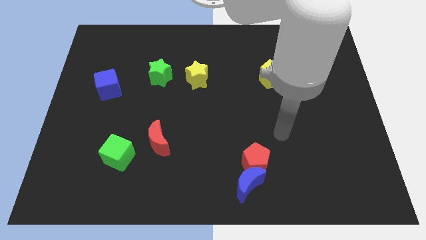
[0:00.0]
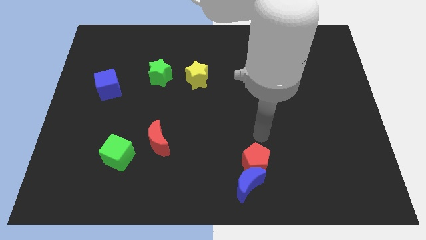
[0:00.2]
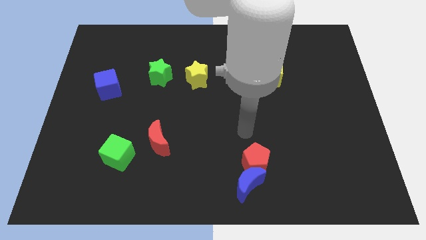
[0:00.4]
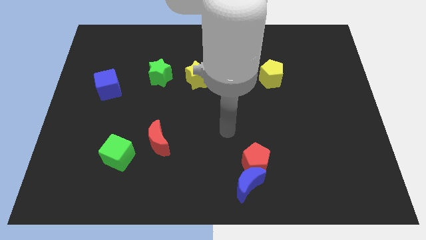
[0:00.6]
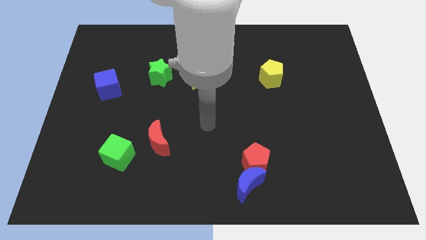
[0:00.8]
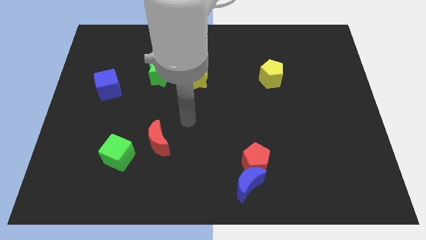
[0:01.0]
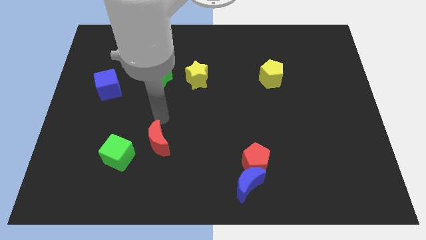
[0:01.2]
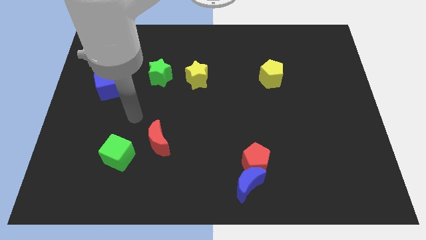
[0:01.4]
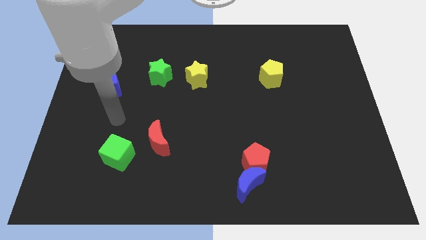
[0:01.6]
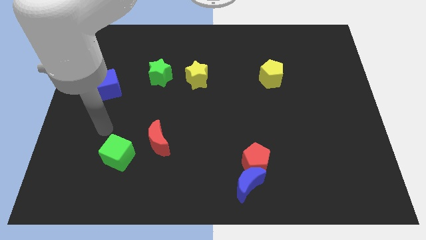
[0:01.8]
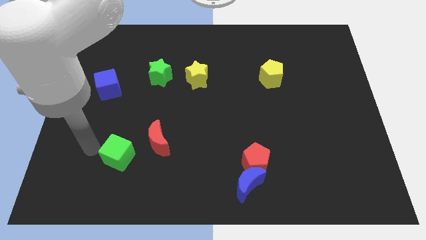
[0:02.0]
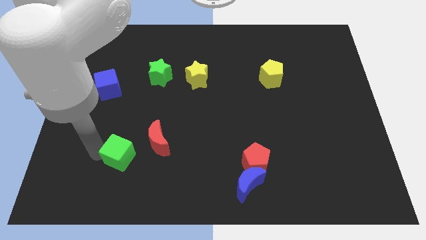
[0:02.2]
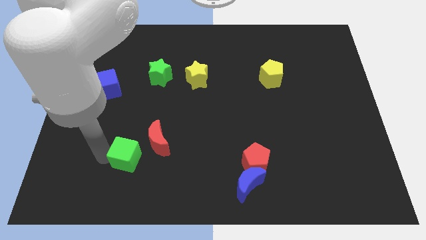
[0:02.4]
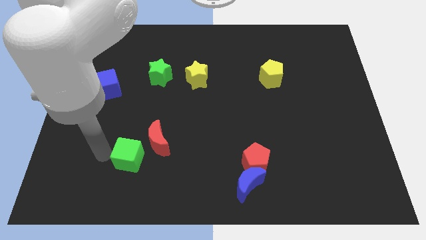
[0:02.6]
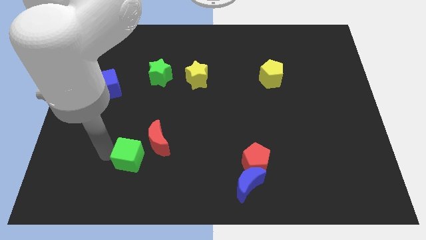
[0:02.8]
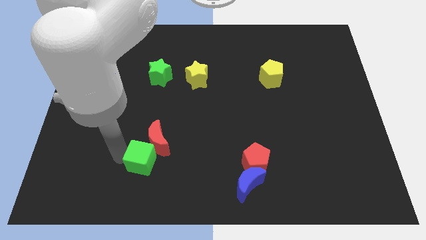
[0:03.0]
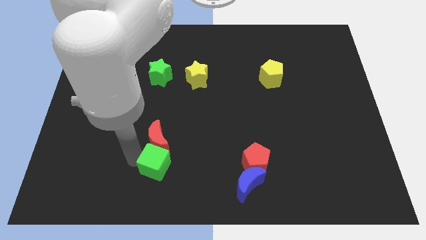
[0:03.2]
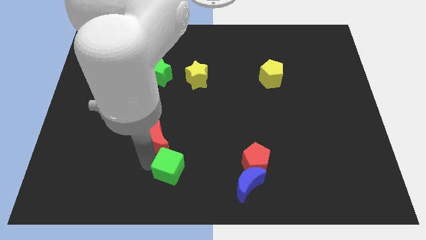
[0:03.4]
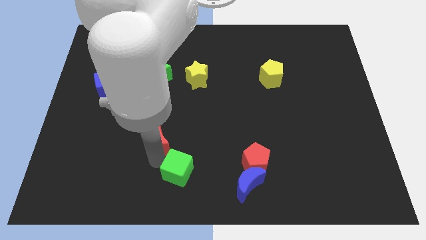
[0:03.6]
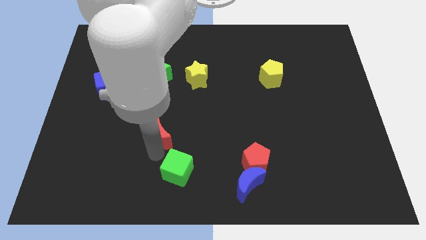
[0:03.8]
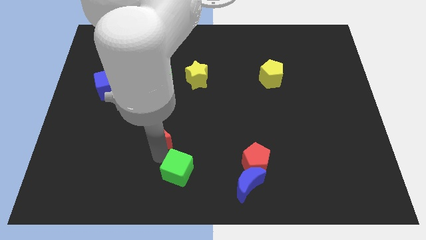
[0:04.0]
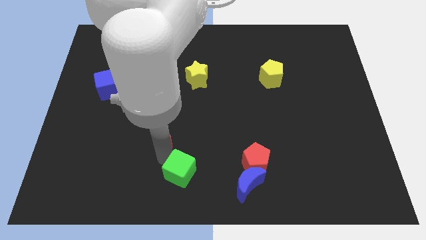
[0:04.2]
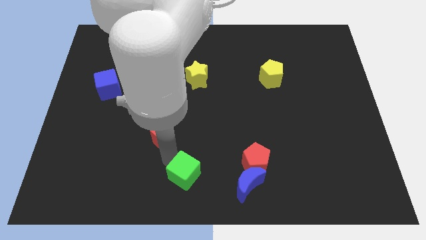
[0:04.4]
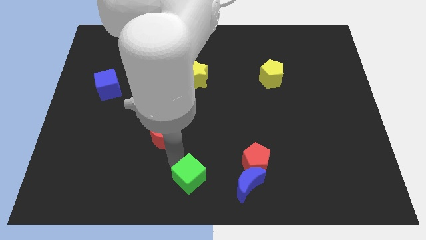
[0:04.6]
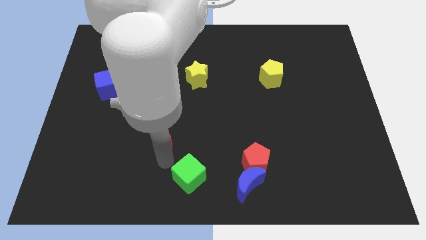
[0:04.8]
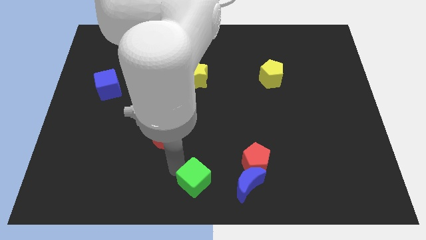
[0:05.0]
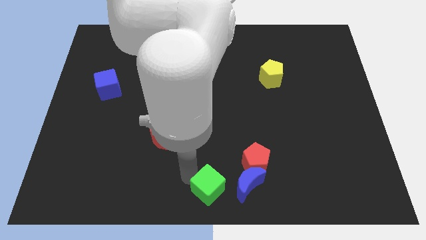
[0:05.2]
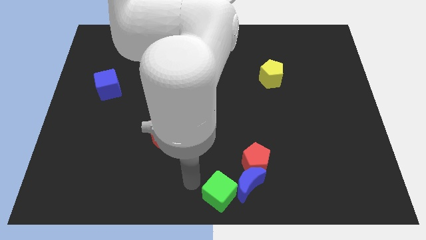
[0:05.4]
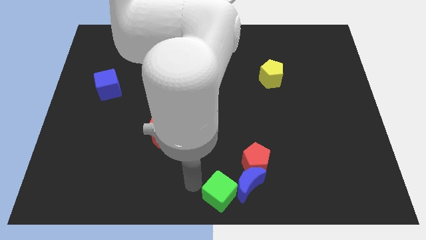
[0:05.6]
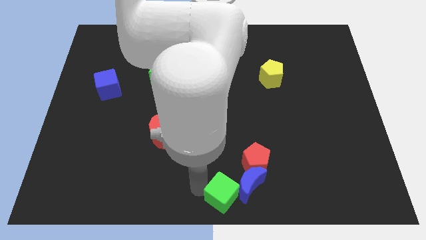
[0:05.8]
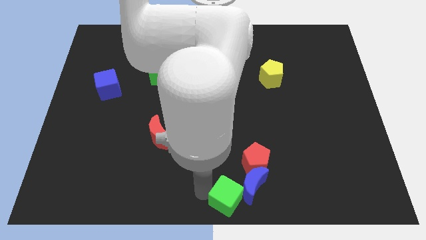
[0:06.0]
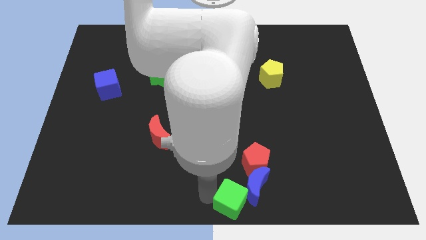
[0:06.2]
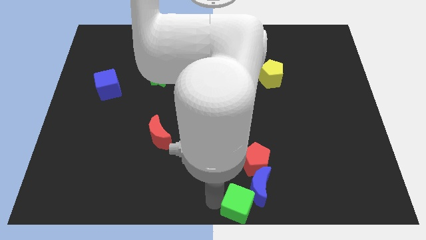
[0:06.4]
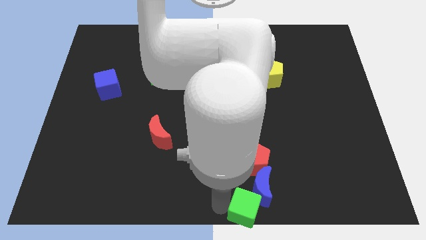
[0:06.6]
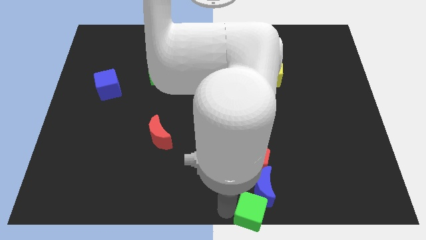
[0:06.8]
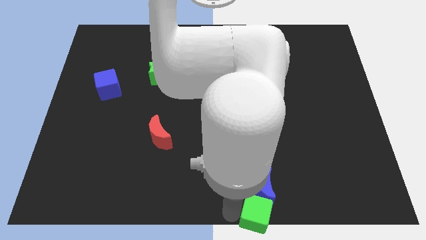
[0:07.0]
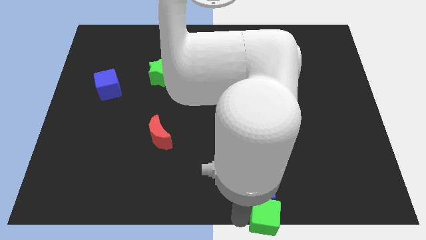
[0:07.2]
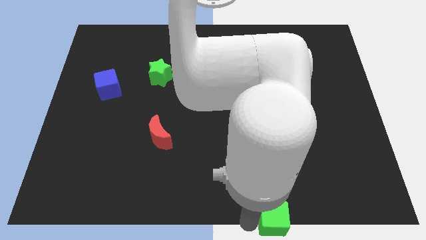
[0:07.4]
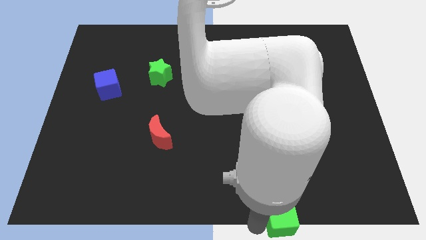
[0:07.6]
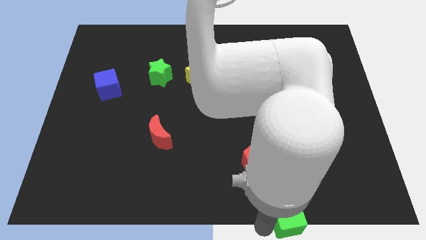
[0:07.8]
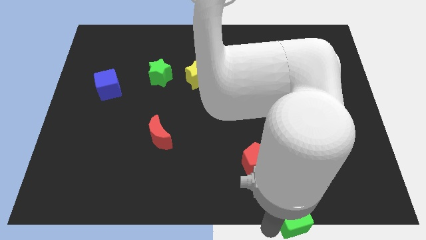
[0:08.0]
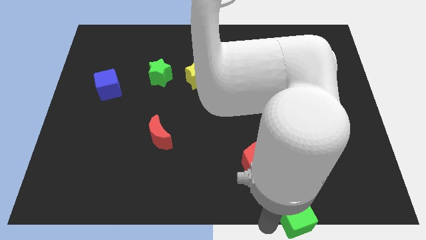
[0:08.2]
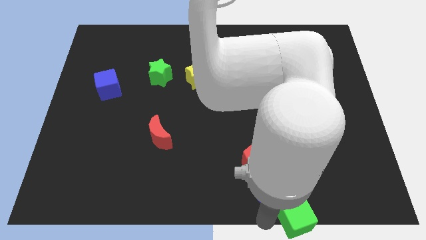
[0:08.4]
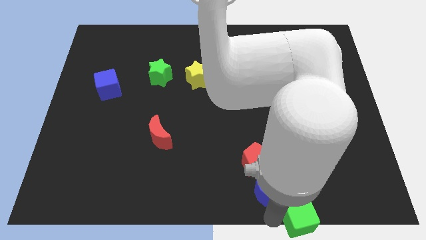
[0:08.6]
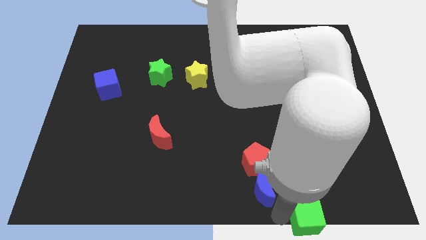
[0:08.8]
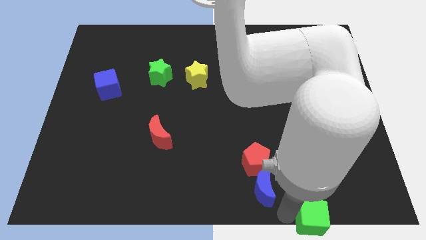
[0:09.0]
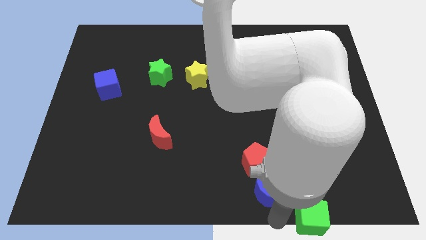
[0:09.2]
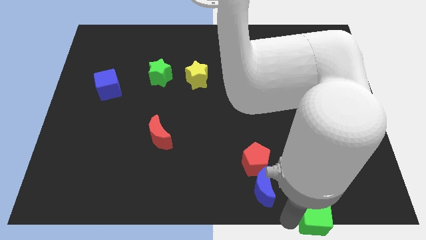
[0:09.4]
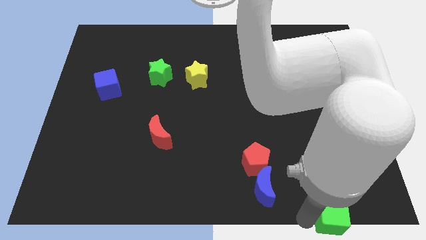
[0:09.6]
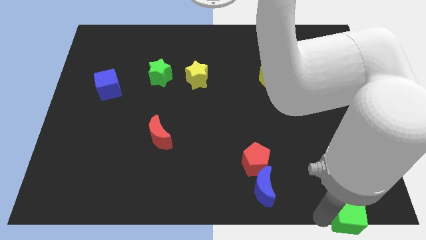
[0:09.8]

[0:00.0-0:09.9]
move the green cube to the bottom right

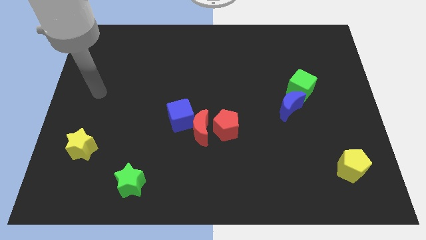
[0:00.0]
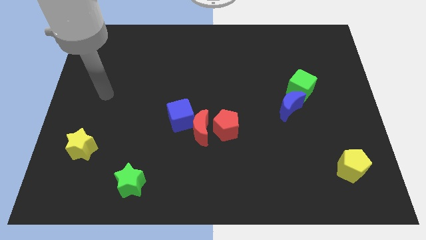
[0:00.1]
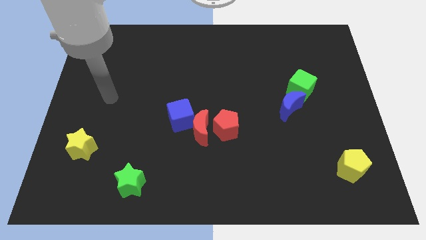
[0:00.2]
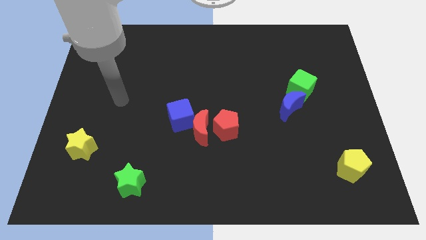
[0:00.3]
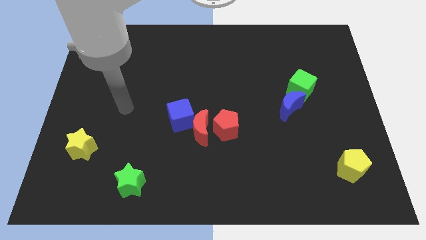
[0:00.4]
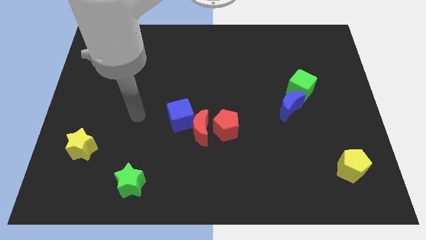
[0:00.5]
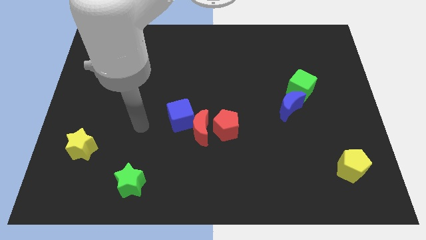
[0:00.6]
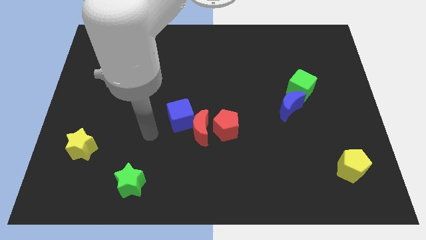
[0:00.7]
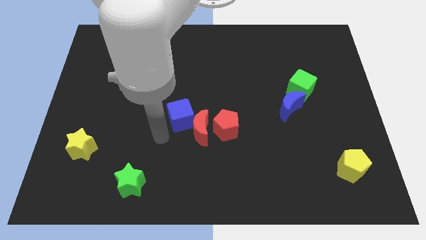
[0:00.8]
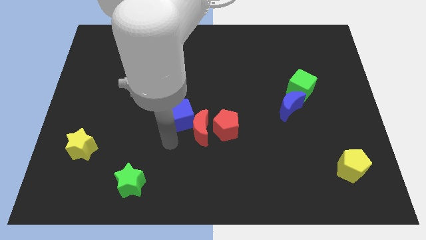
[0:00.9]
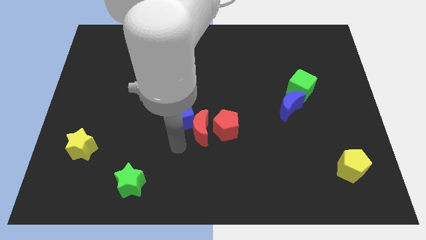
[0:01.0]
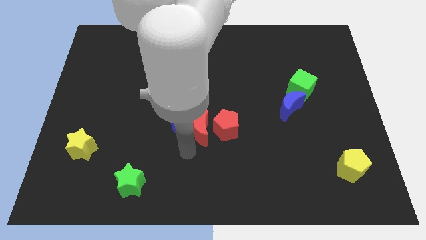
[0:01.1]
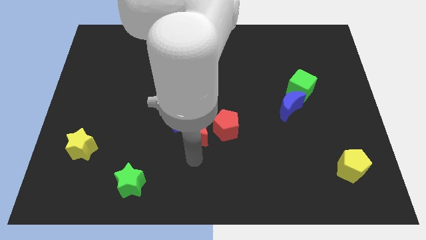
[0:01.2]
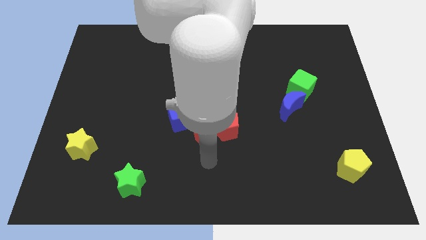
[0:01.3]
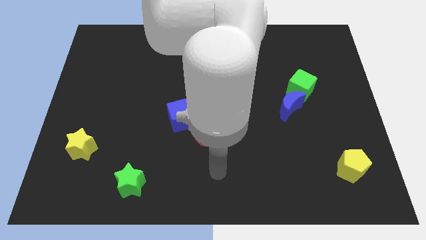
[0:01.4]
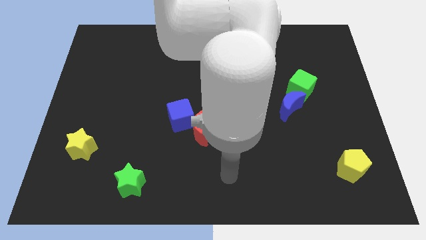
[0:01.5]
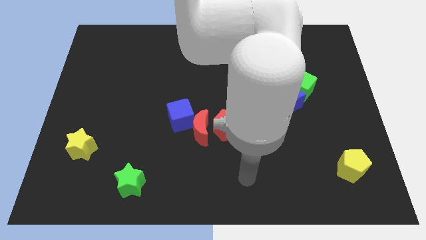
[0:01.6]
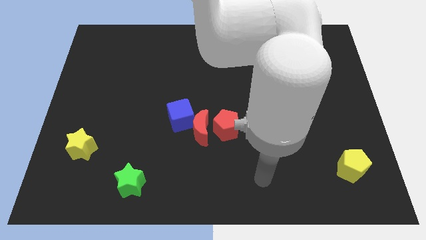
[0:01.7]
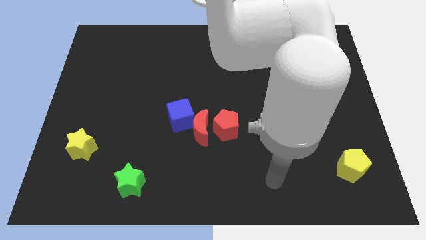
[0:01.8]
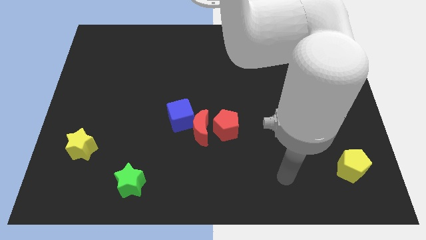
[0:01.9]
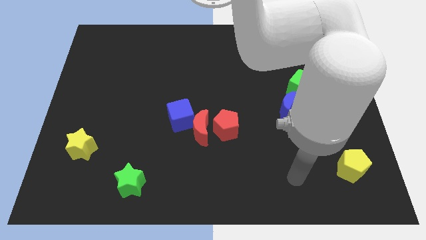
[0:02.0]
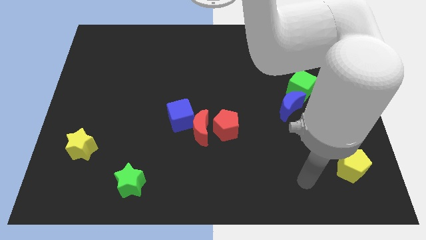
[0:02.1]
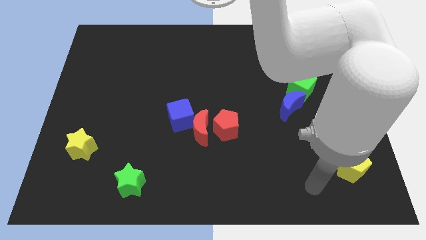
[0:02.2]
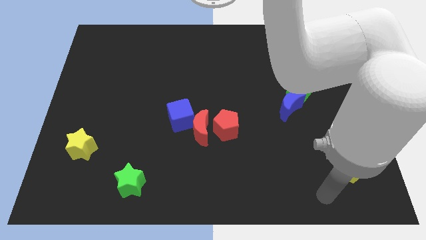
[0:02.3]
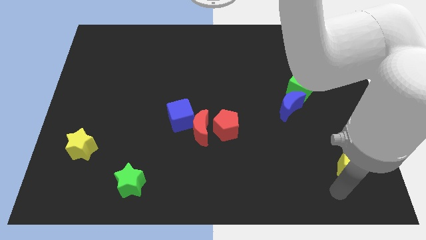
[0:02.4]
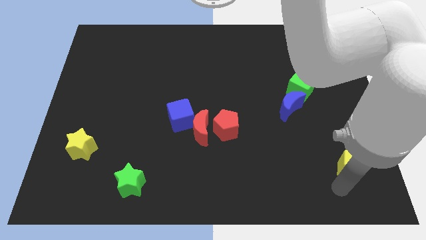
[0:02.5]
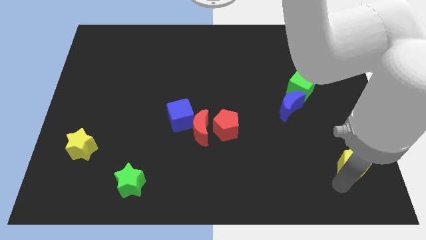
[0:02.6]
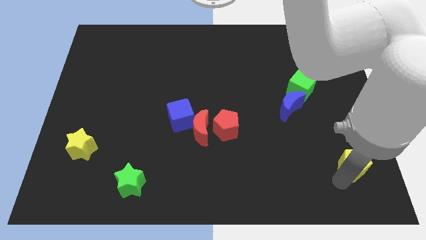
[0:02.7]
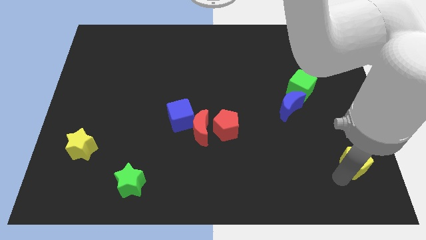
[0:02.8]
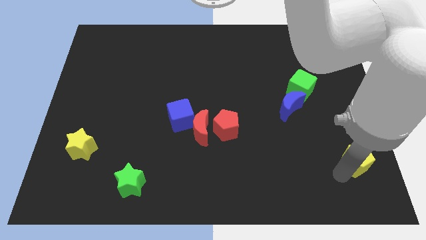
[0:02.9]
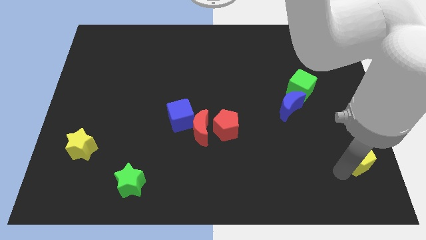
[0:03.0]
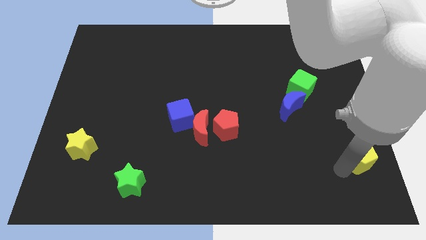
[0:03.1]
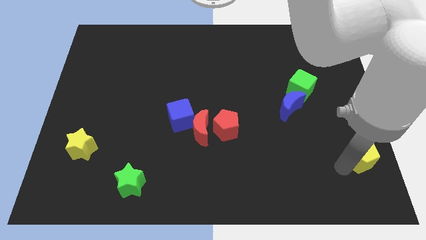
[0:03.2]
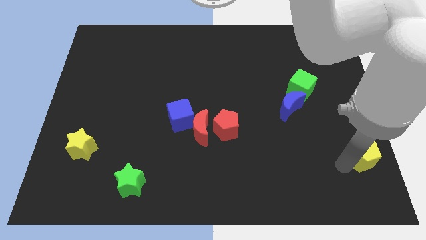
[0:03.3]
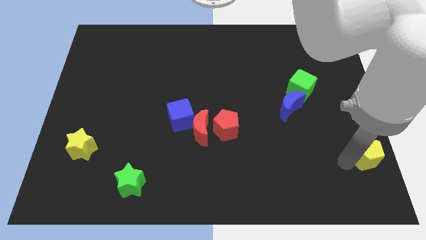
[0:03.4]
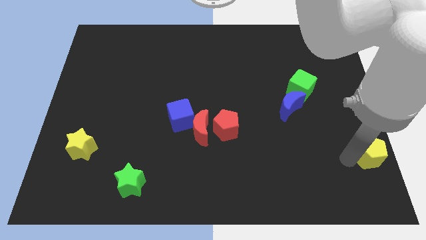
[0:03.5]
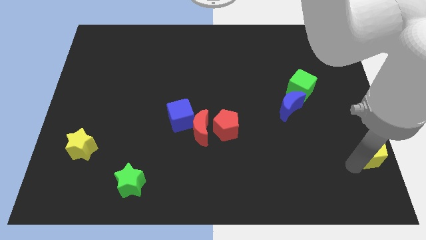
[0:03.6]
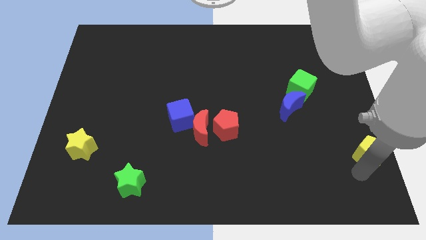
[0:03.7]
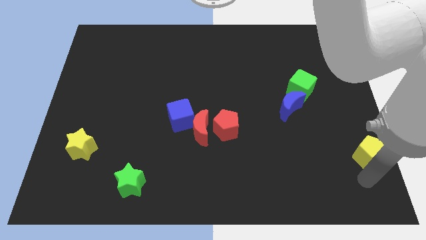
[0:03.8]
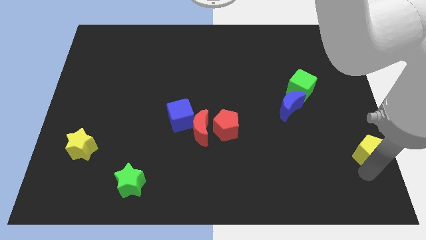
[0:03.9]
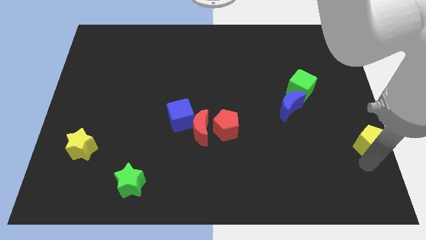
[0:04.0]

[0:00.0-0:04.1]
put the yellow pentagon to the right side of the board
